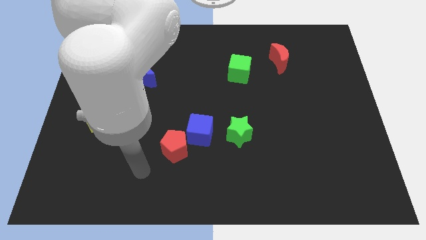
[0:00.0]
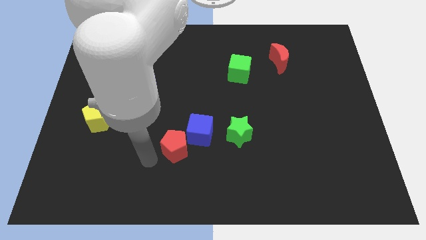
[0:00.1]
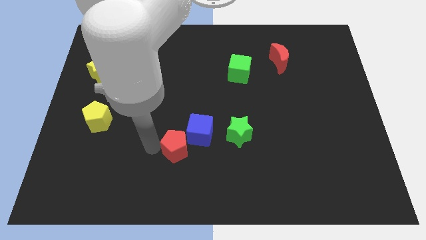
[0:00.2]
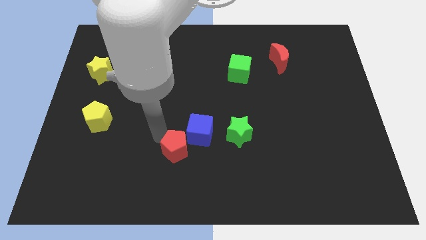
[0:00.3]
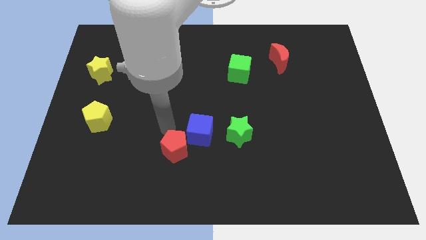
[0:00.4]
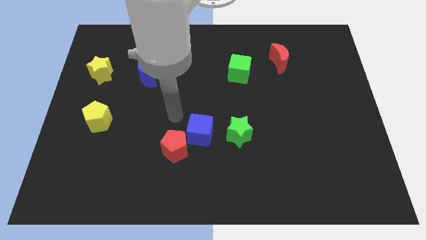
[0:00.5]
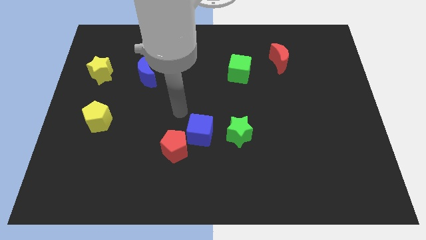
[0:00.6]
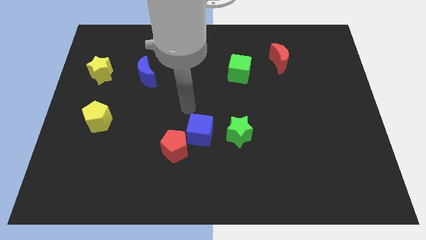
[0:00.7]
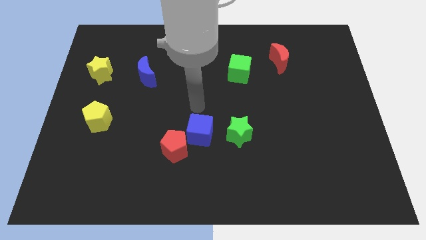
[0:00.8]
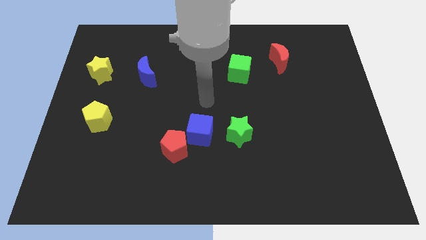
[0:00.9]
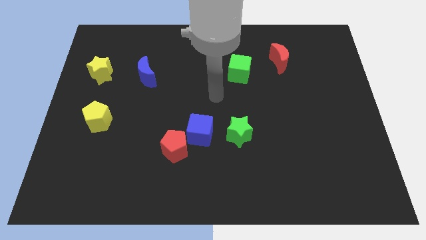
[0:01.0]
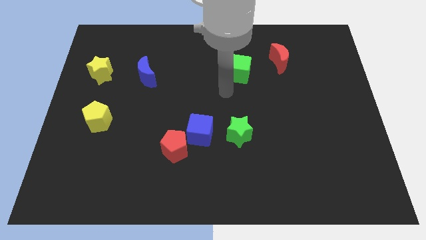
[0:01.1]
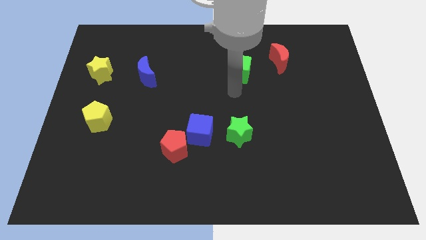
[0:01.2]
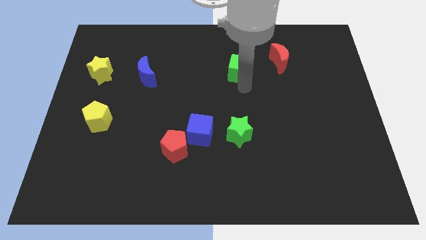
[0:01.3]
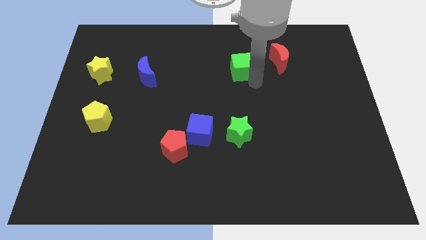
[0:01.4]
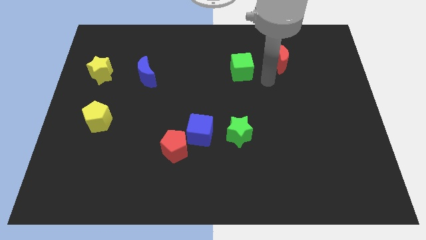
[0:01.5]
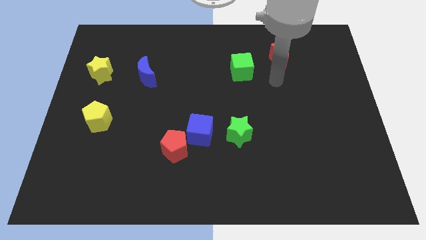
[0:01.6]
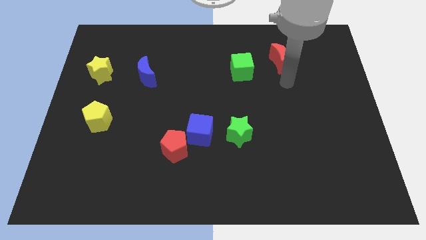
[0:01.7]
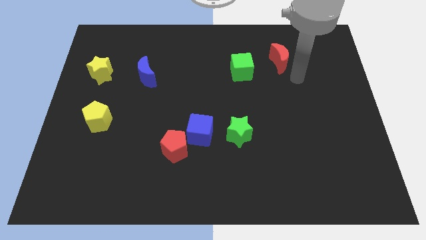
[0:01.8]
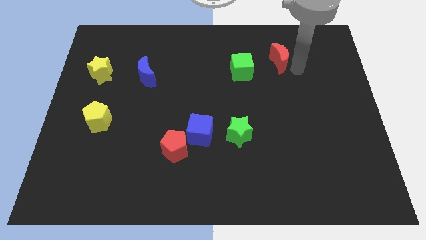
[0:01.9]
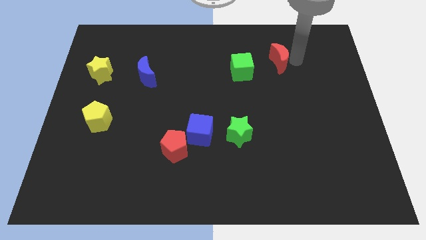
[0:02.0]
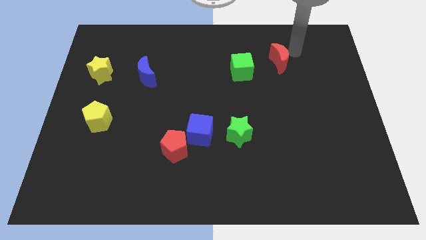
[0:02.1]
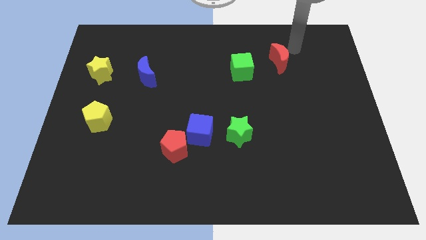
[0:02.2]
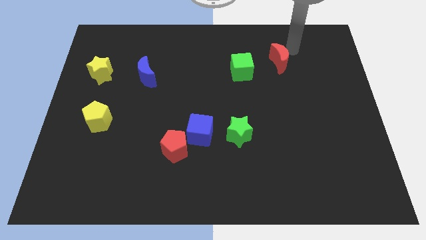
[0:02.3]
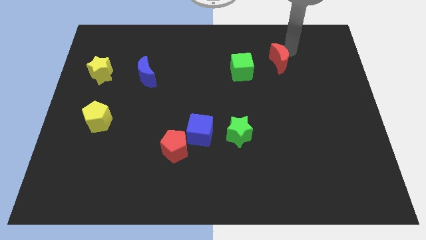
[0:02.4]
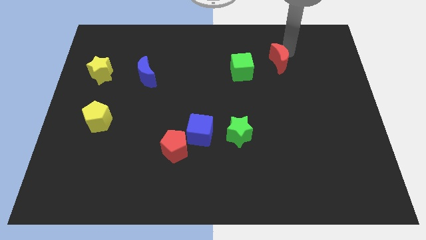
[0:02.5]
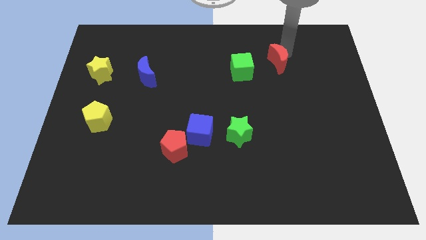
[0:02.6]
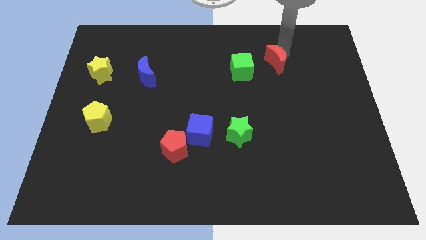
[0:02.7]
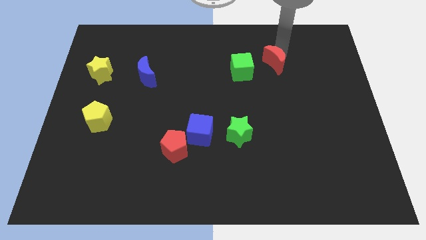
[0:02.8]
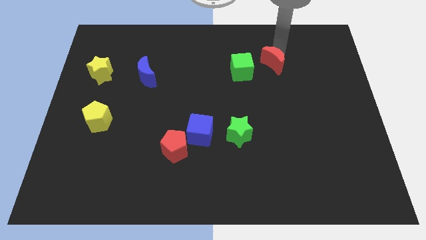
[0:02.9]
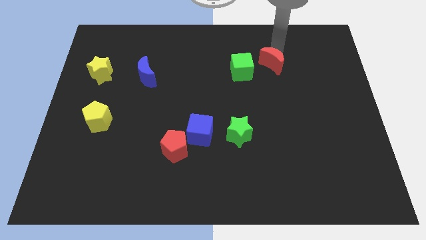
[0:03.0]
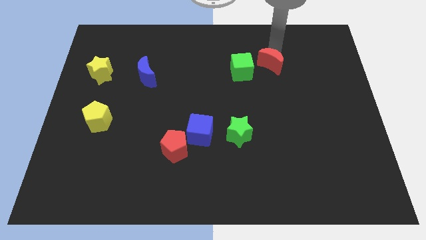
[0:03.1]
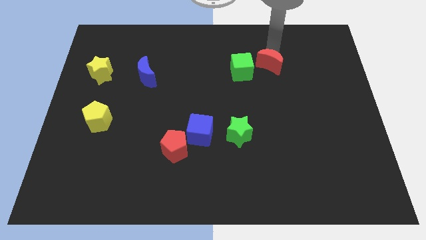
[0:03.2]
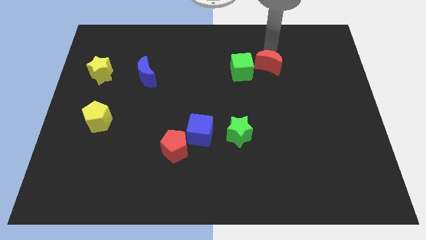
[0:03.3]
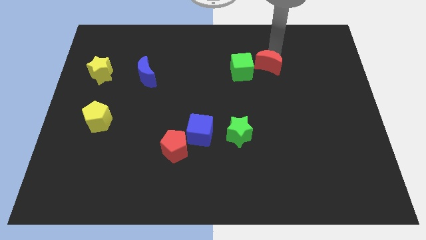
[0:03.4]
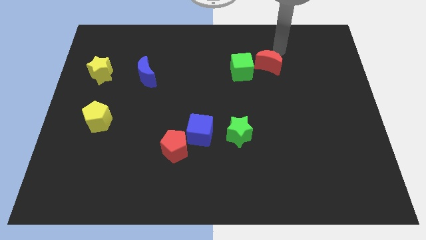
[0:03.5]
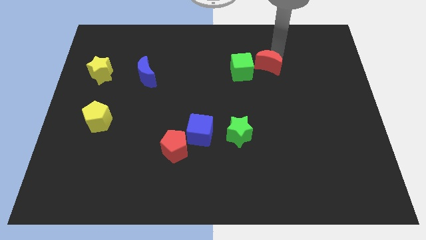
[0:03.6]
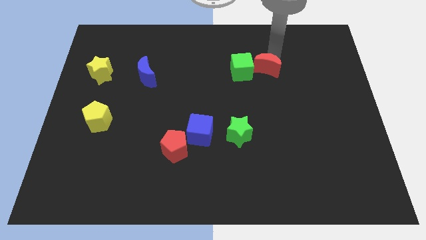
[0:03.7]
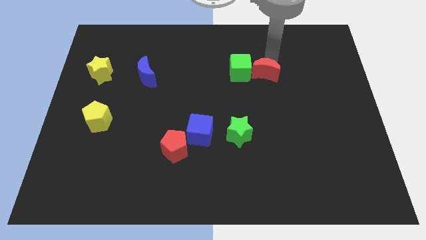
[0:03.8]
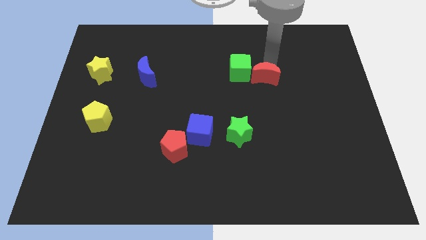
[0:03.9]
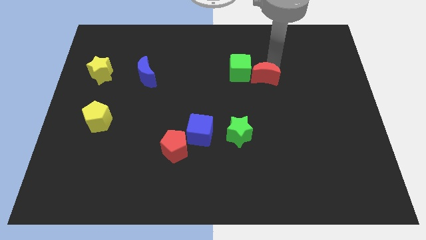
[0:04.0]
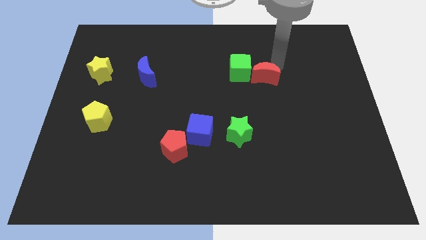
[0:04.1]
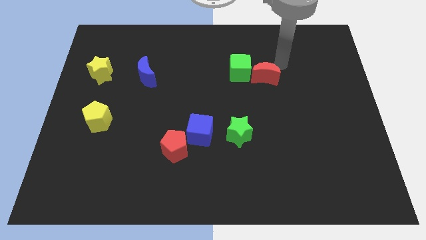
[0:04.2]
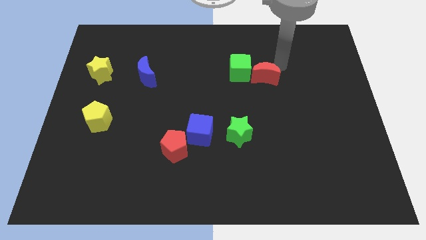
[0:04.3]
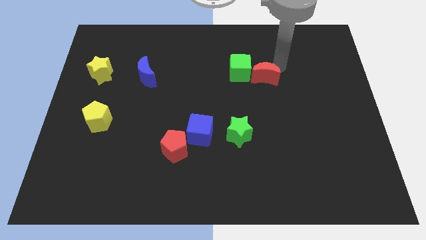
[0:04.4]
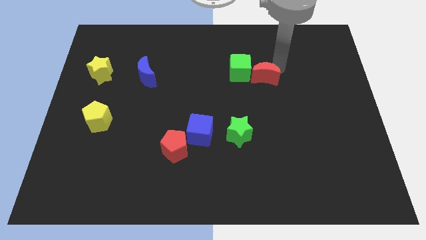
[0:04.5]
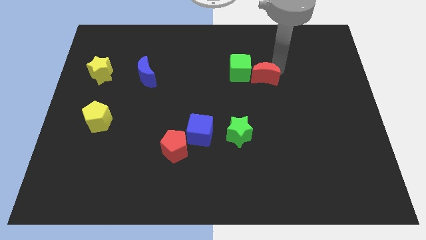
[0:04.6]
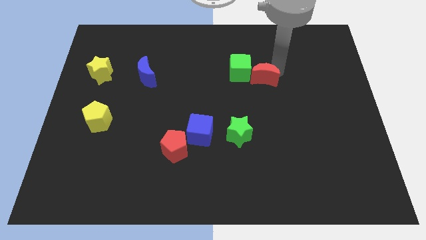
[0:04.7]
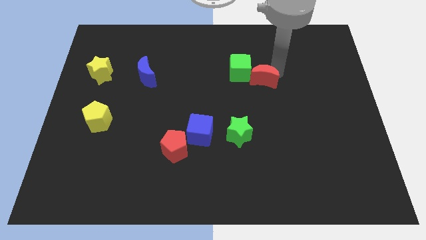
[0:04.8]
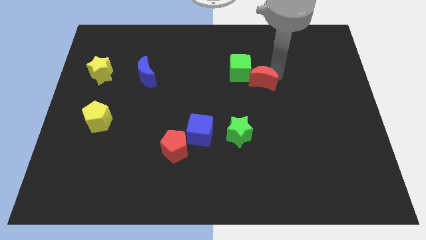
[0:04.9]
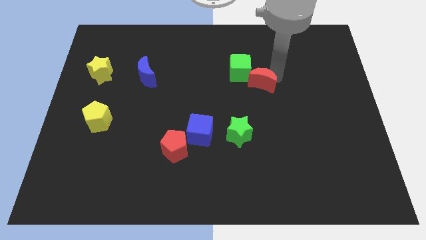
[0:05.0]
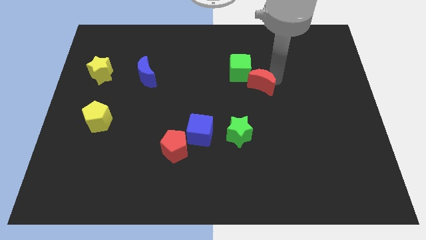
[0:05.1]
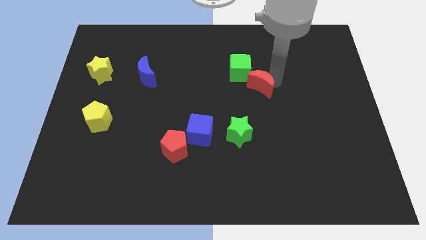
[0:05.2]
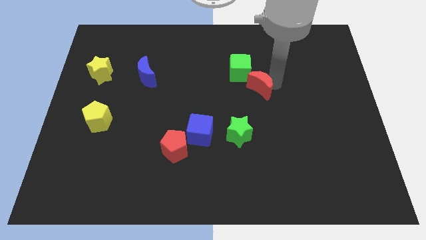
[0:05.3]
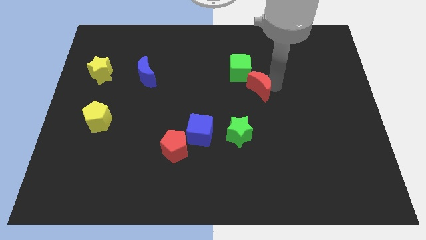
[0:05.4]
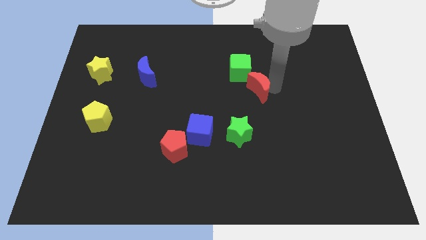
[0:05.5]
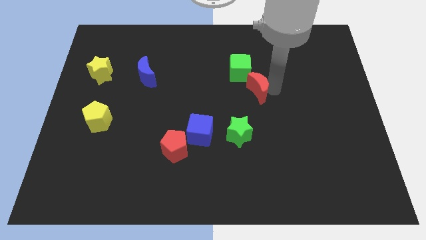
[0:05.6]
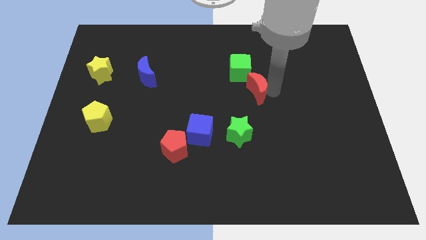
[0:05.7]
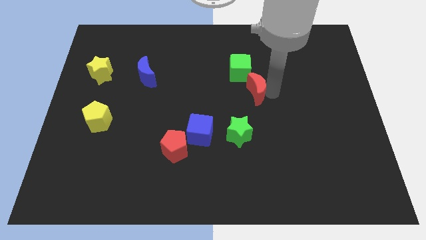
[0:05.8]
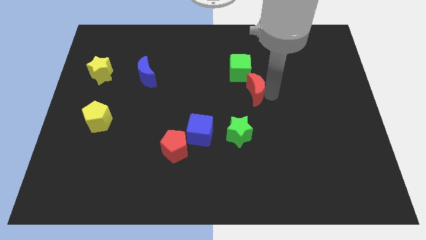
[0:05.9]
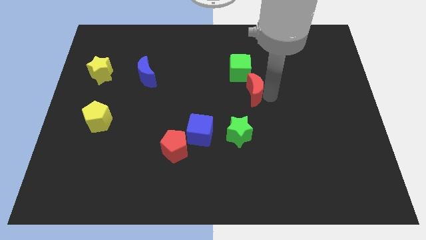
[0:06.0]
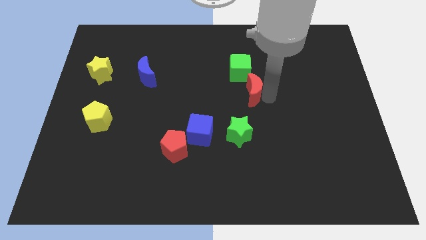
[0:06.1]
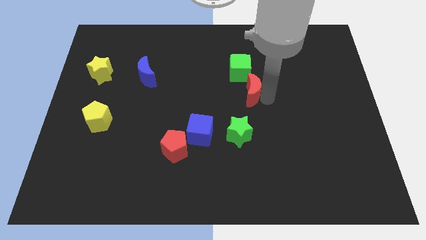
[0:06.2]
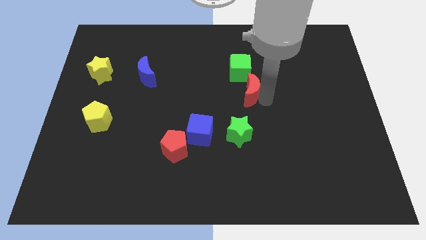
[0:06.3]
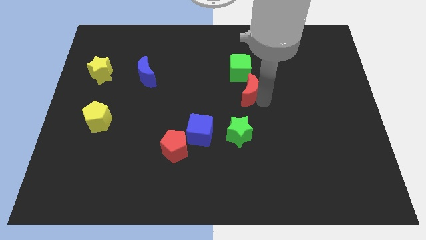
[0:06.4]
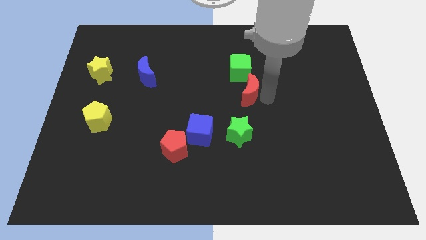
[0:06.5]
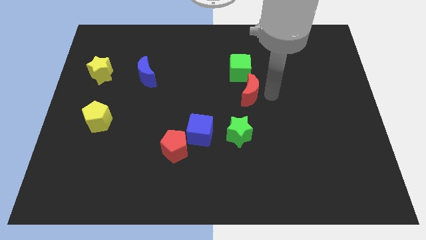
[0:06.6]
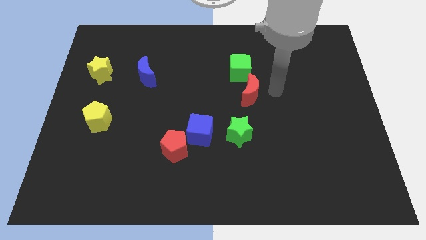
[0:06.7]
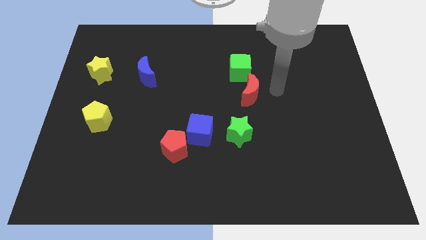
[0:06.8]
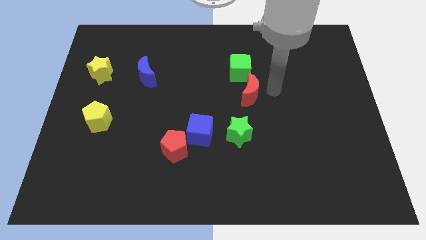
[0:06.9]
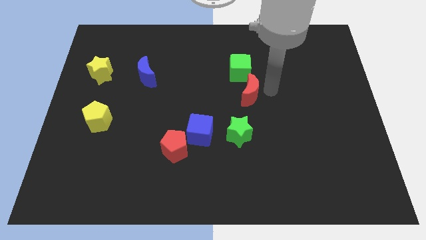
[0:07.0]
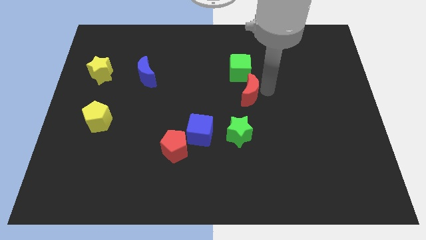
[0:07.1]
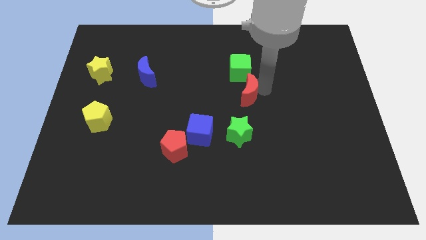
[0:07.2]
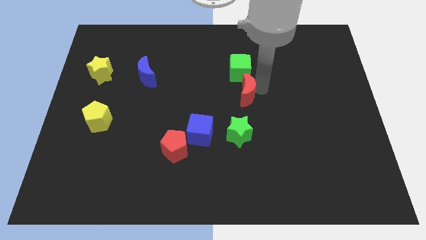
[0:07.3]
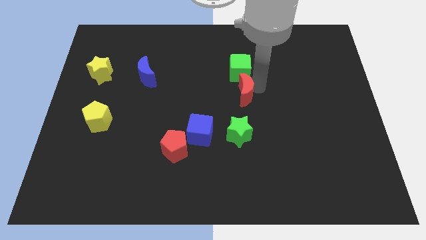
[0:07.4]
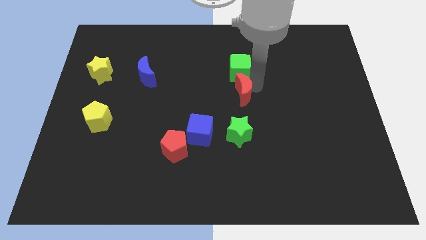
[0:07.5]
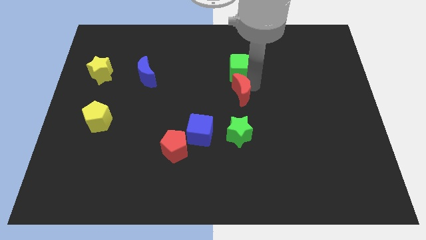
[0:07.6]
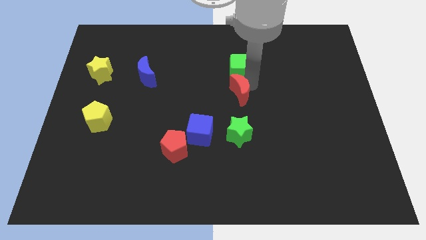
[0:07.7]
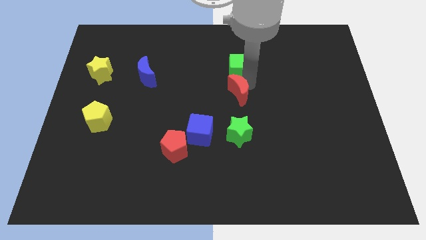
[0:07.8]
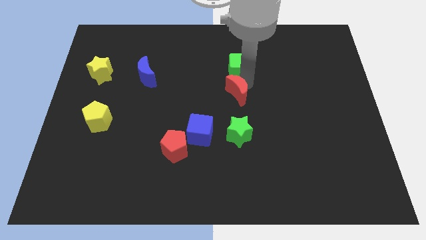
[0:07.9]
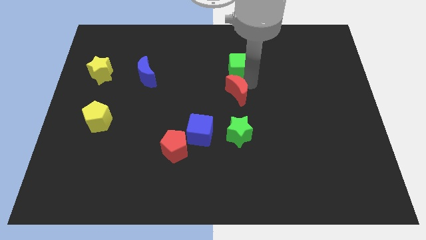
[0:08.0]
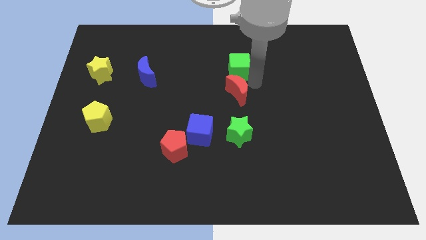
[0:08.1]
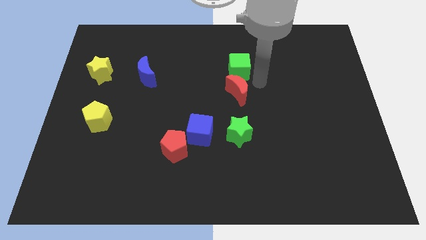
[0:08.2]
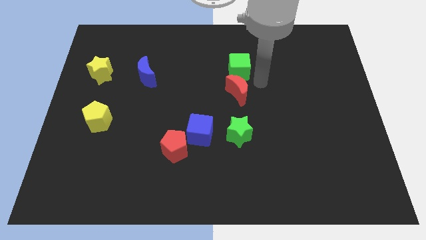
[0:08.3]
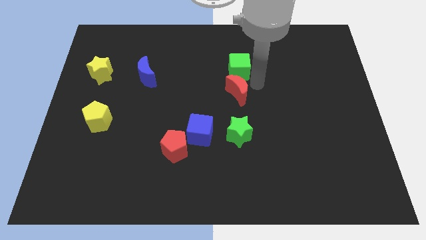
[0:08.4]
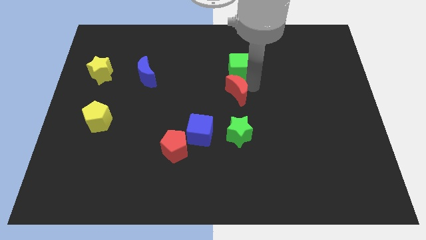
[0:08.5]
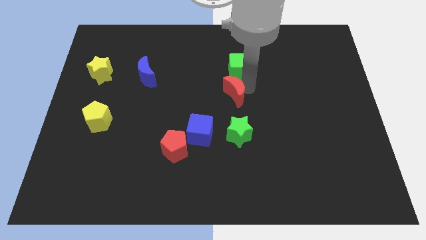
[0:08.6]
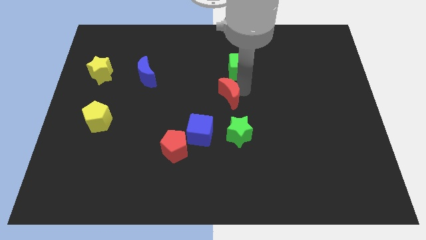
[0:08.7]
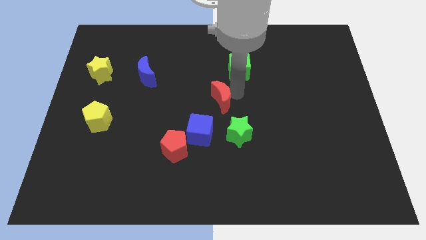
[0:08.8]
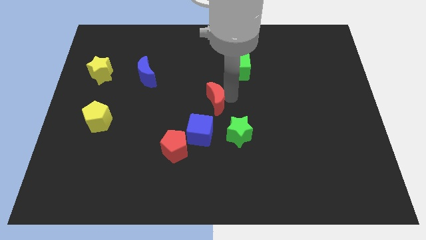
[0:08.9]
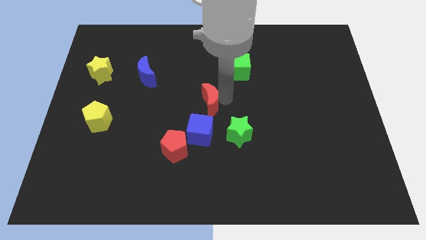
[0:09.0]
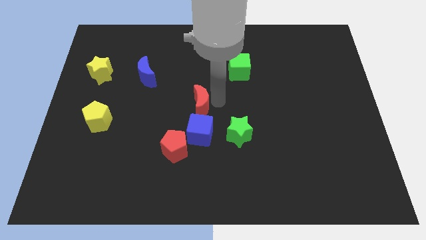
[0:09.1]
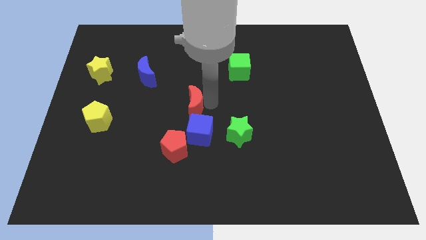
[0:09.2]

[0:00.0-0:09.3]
move the red moon to the top side of the red pentagon
